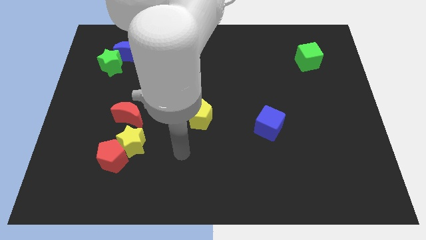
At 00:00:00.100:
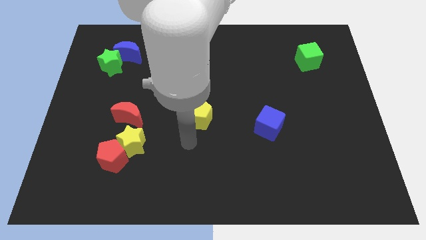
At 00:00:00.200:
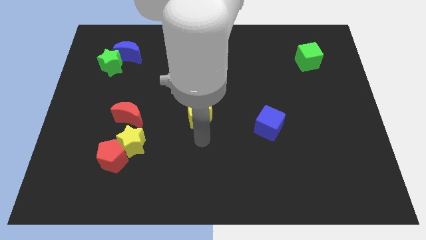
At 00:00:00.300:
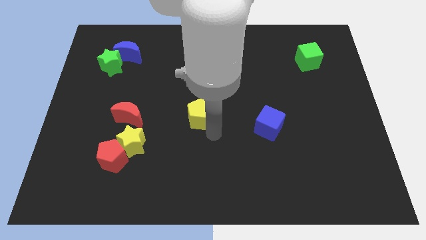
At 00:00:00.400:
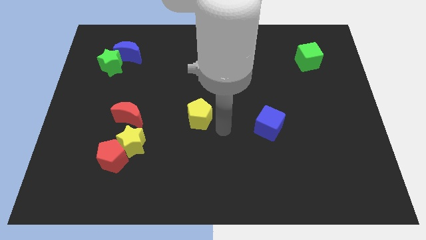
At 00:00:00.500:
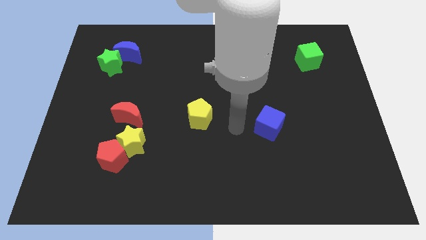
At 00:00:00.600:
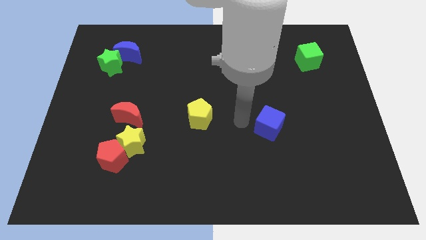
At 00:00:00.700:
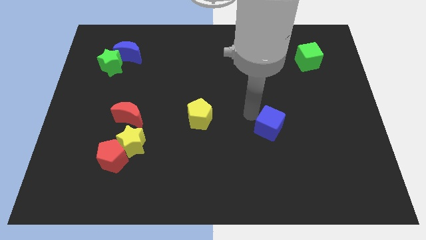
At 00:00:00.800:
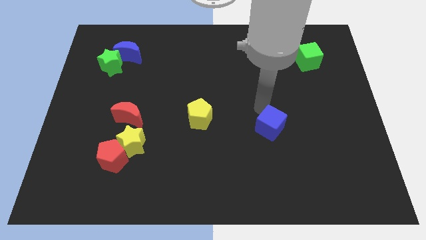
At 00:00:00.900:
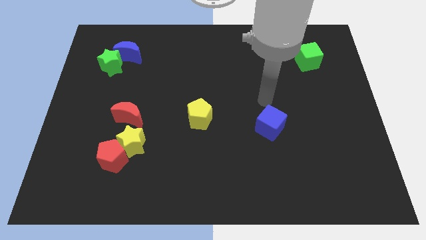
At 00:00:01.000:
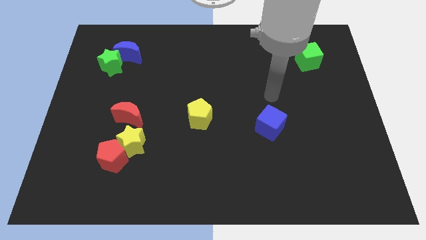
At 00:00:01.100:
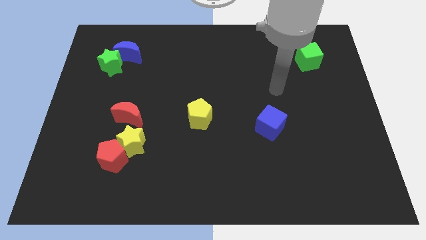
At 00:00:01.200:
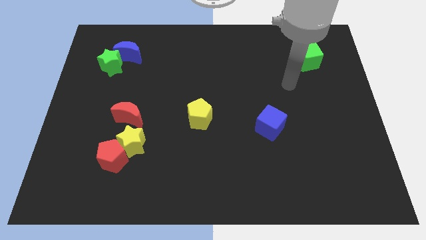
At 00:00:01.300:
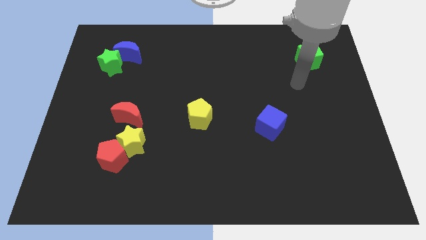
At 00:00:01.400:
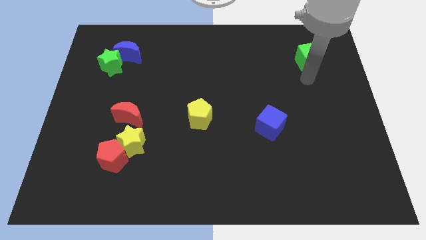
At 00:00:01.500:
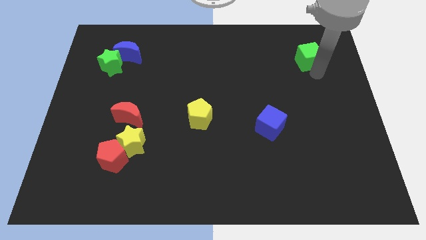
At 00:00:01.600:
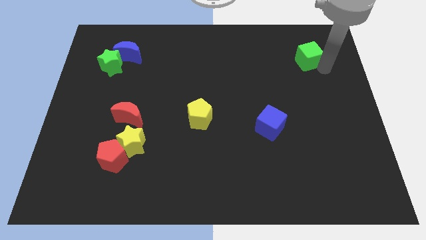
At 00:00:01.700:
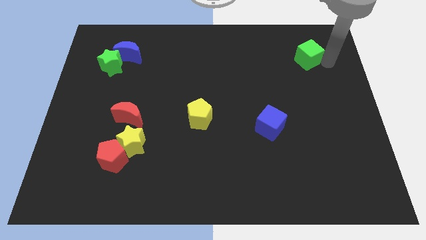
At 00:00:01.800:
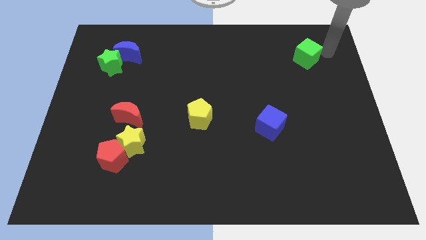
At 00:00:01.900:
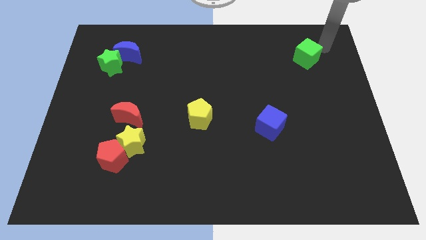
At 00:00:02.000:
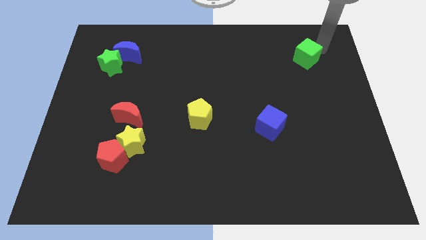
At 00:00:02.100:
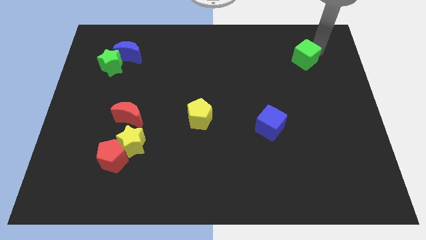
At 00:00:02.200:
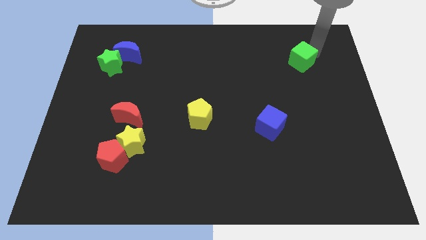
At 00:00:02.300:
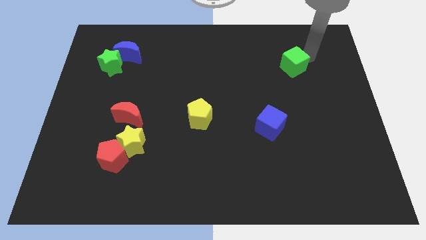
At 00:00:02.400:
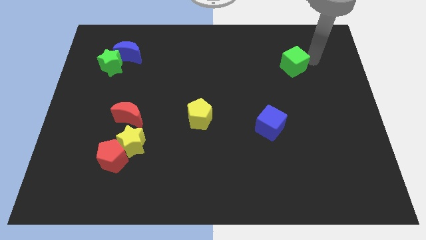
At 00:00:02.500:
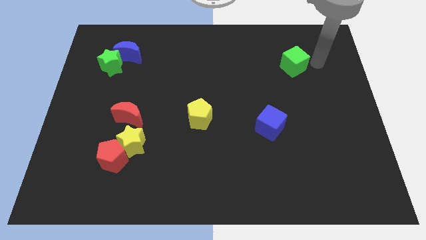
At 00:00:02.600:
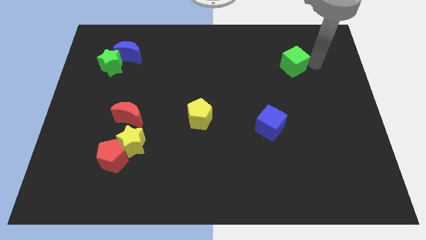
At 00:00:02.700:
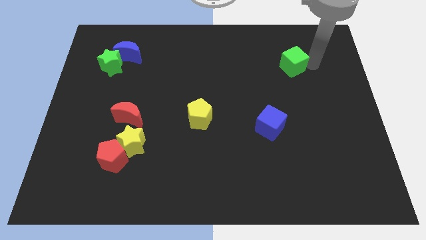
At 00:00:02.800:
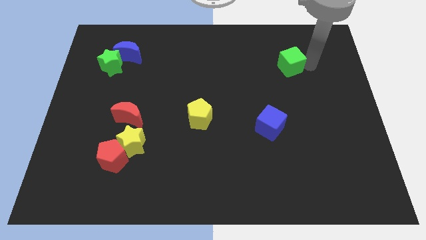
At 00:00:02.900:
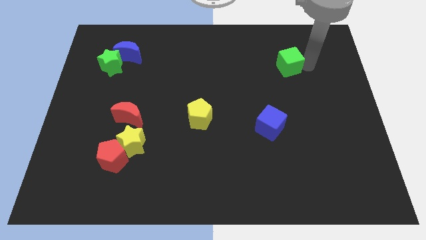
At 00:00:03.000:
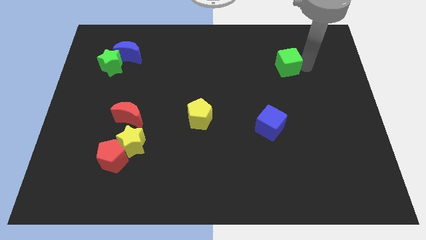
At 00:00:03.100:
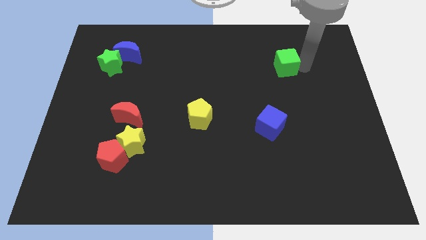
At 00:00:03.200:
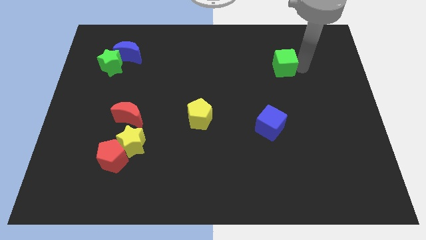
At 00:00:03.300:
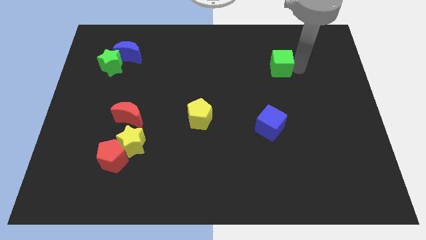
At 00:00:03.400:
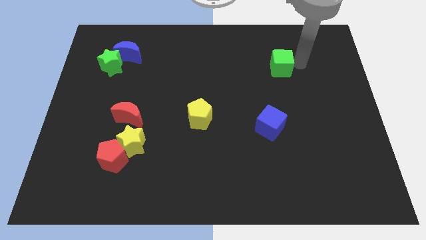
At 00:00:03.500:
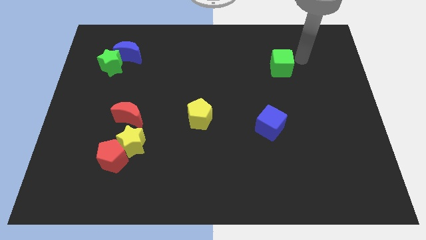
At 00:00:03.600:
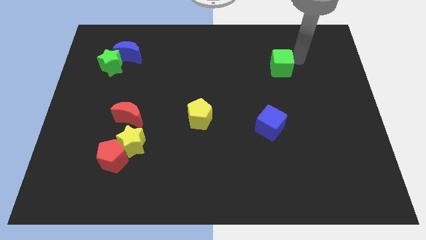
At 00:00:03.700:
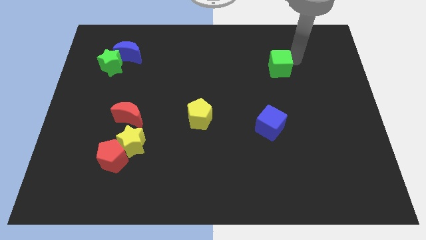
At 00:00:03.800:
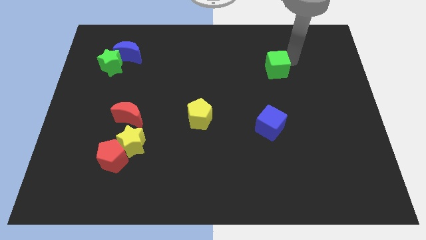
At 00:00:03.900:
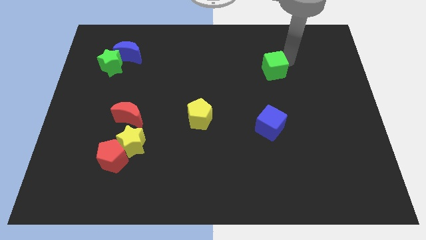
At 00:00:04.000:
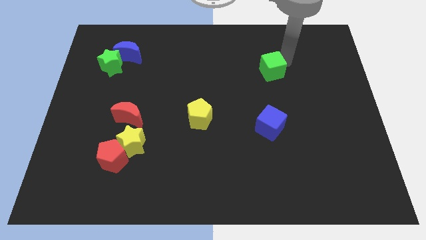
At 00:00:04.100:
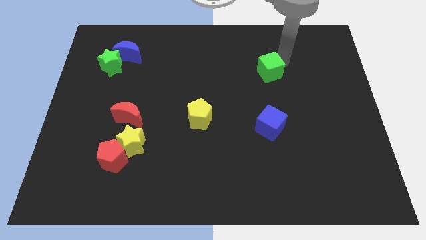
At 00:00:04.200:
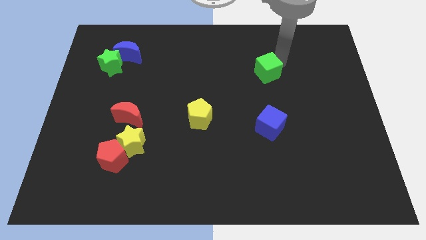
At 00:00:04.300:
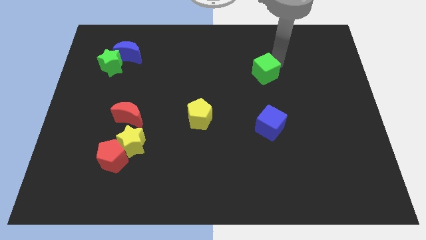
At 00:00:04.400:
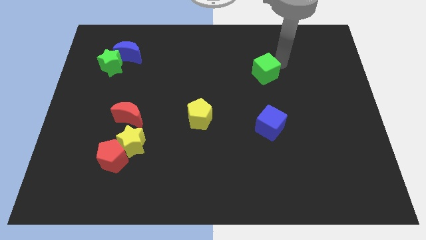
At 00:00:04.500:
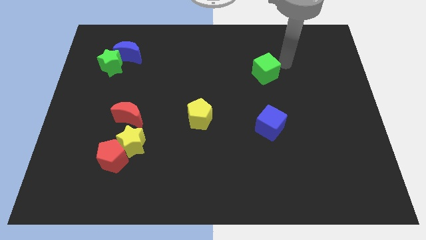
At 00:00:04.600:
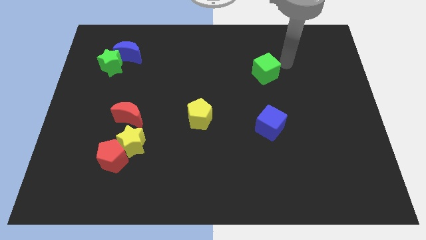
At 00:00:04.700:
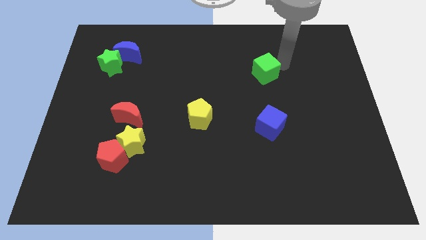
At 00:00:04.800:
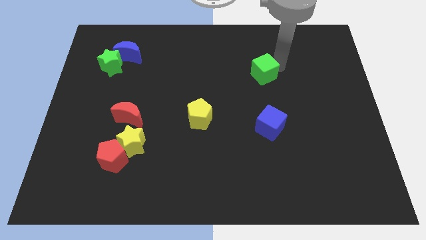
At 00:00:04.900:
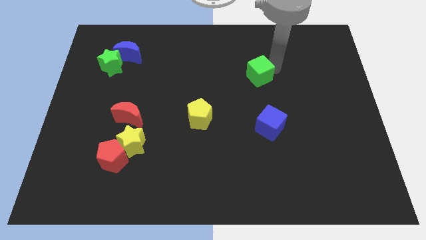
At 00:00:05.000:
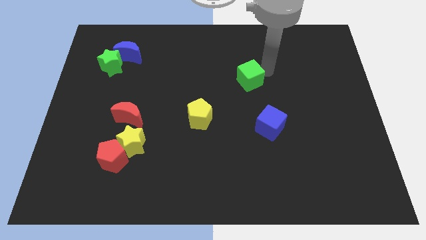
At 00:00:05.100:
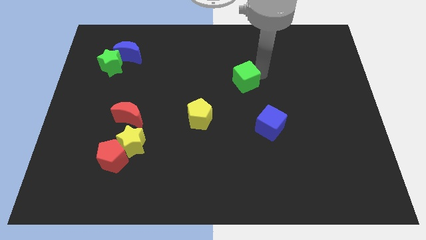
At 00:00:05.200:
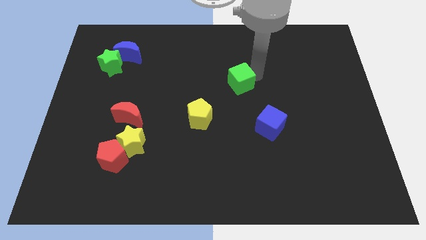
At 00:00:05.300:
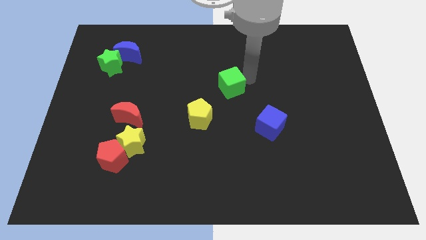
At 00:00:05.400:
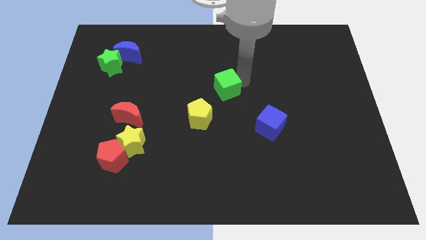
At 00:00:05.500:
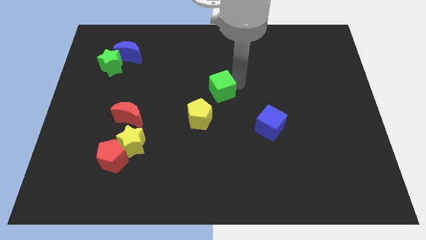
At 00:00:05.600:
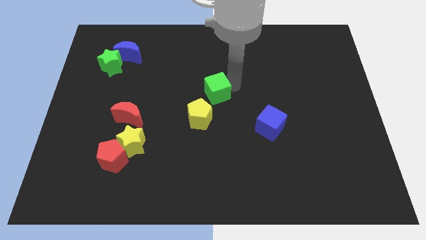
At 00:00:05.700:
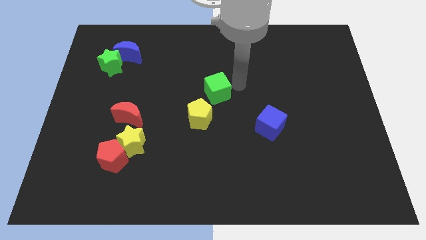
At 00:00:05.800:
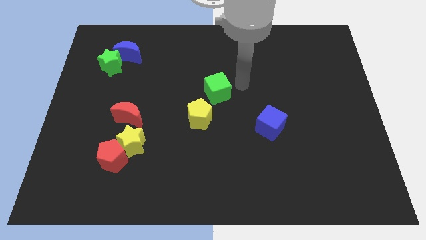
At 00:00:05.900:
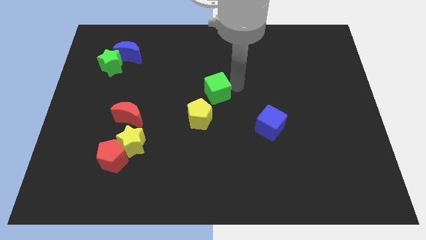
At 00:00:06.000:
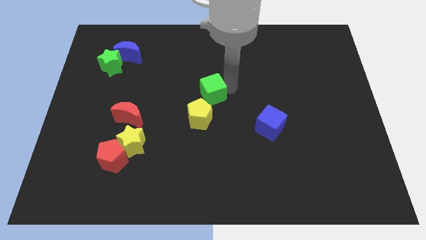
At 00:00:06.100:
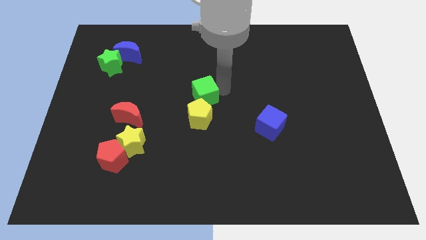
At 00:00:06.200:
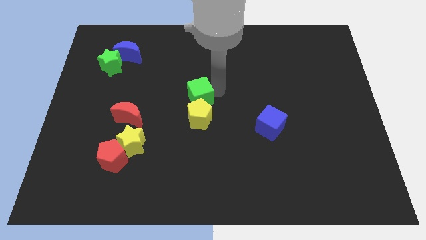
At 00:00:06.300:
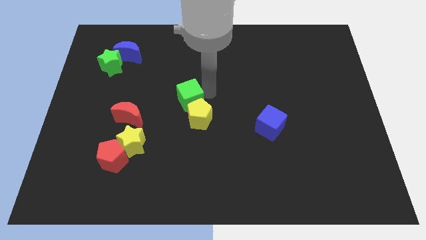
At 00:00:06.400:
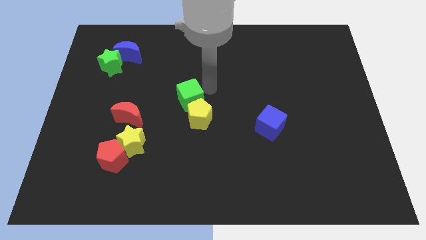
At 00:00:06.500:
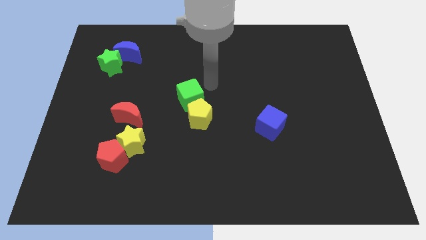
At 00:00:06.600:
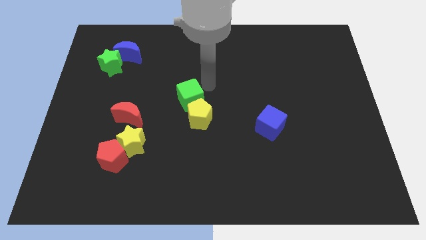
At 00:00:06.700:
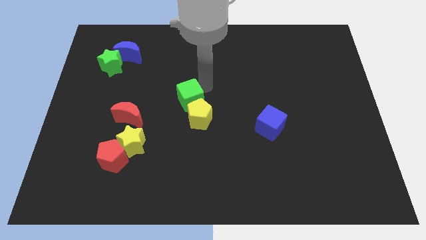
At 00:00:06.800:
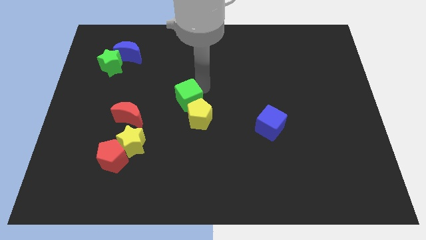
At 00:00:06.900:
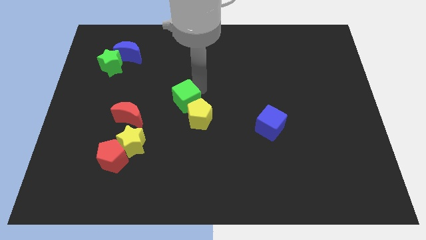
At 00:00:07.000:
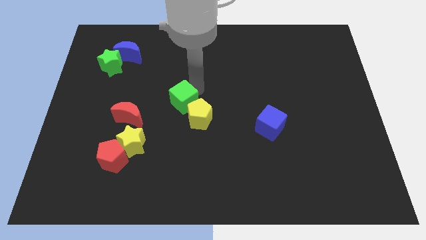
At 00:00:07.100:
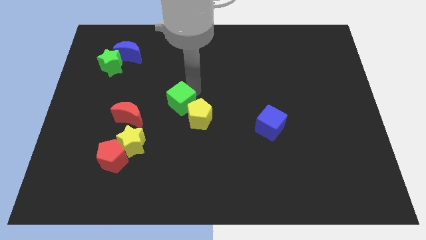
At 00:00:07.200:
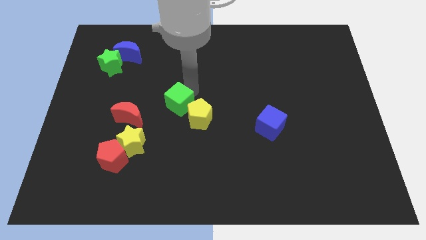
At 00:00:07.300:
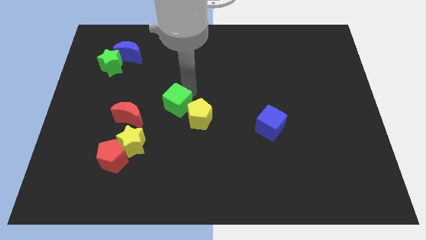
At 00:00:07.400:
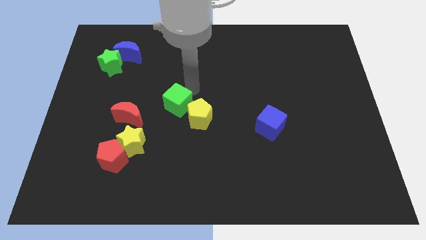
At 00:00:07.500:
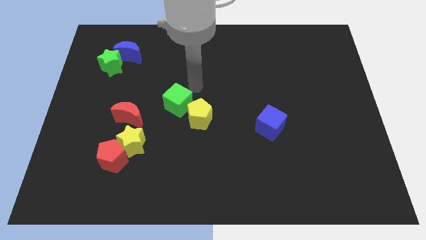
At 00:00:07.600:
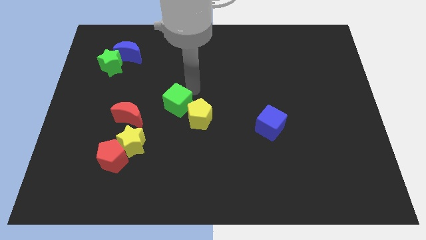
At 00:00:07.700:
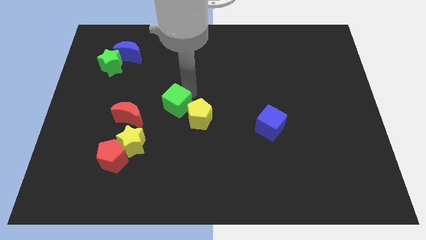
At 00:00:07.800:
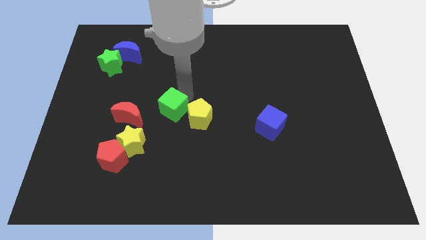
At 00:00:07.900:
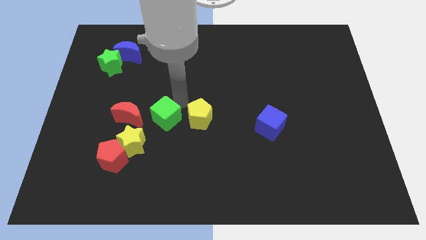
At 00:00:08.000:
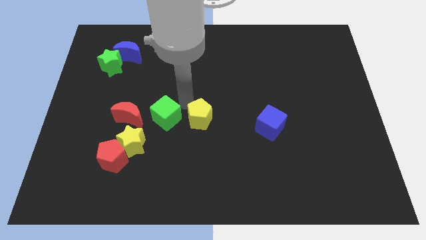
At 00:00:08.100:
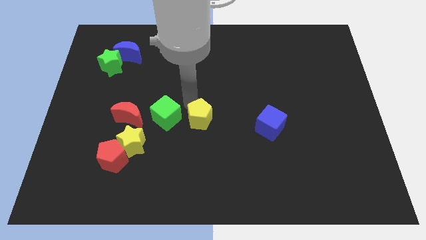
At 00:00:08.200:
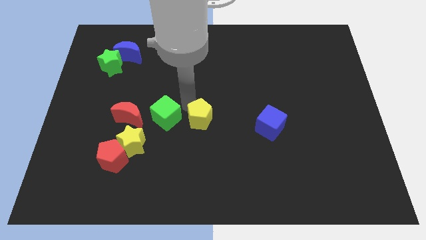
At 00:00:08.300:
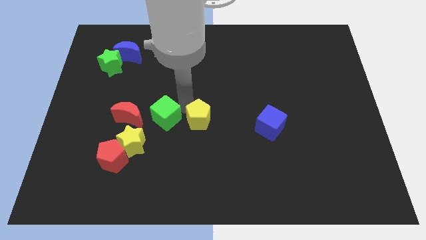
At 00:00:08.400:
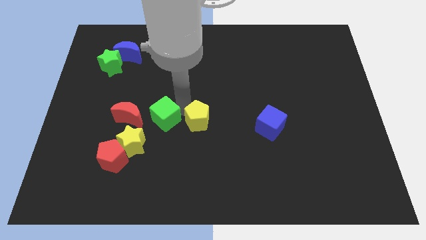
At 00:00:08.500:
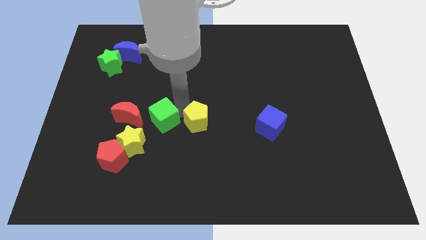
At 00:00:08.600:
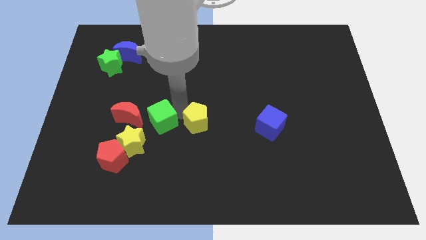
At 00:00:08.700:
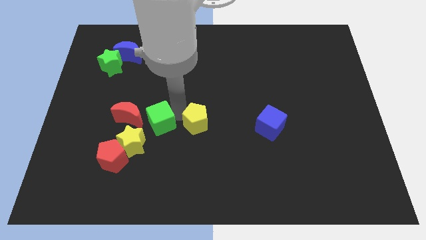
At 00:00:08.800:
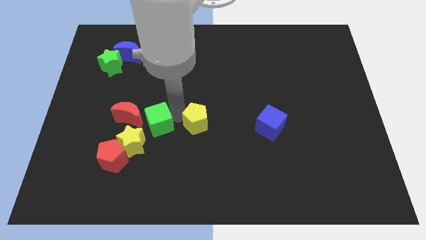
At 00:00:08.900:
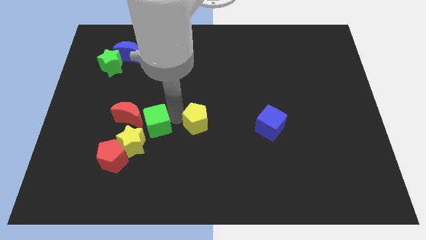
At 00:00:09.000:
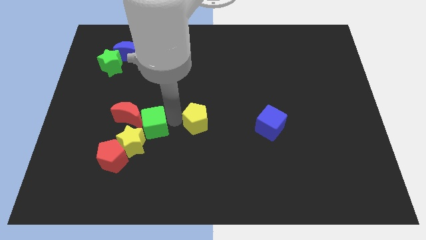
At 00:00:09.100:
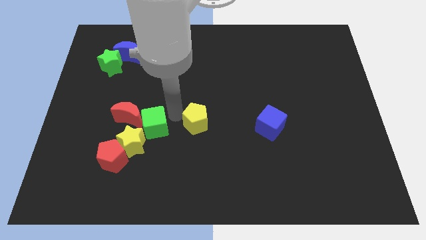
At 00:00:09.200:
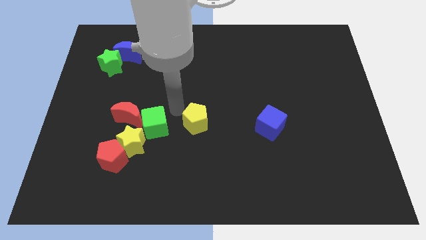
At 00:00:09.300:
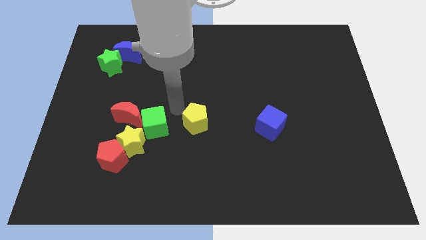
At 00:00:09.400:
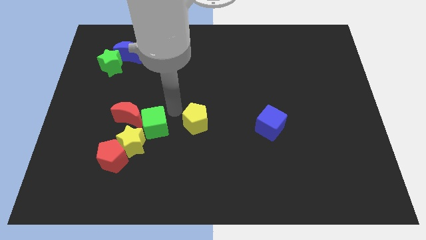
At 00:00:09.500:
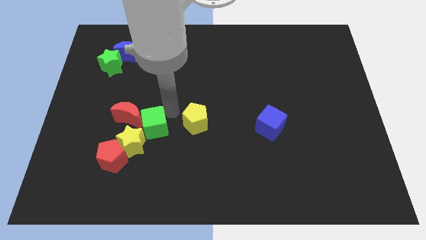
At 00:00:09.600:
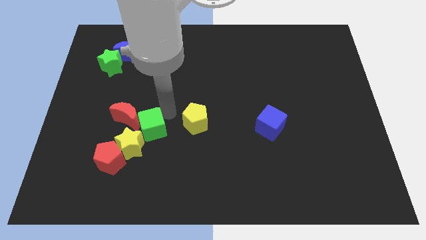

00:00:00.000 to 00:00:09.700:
put the green cube to the yellow star
